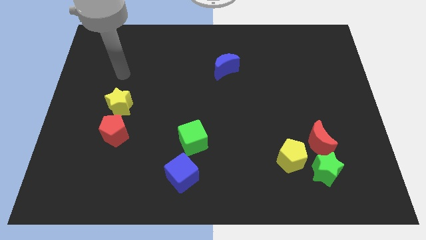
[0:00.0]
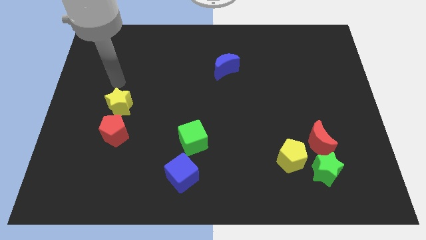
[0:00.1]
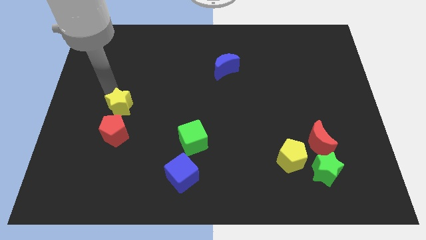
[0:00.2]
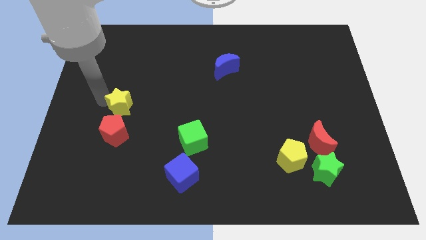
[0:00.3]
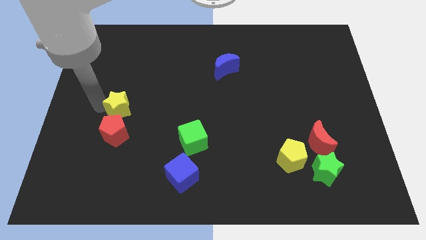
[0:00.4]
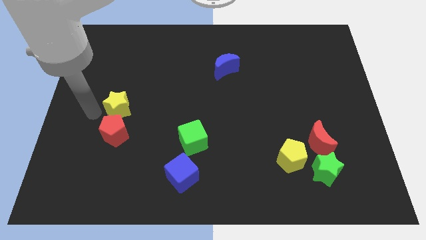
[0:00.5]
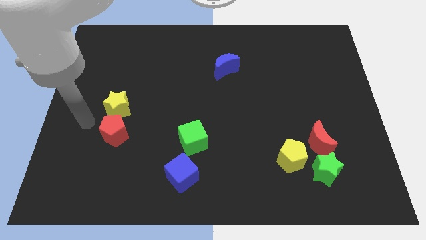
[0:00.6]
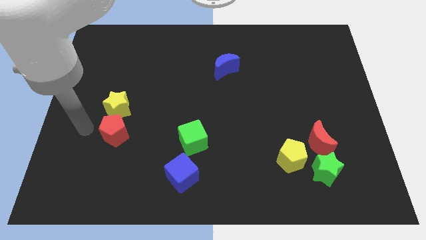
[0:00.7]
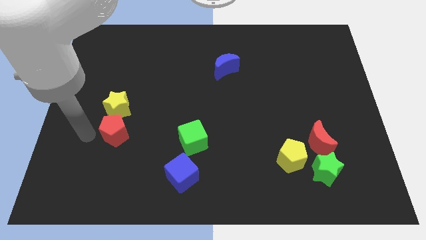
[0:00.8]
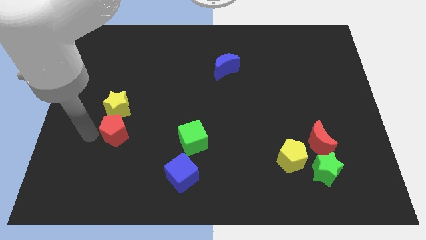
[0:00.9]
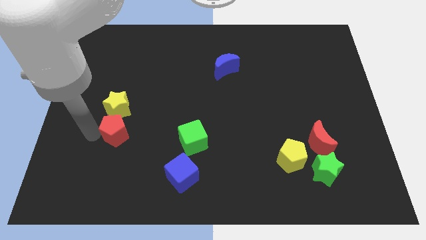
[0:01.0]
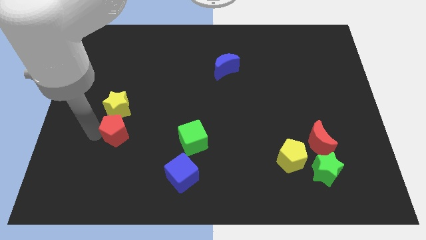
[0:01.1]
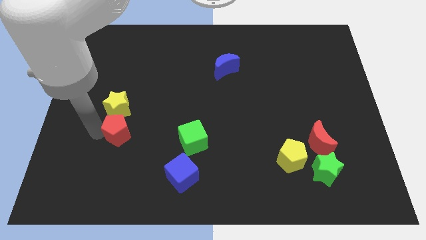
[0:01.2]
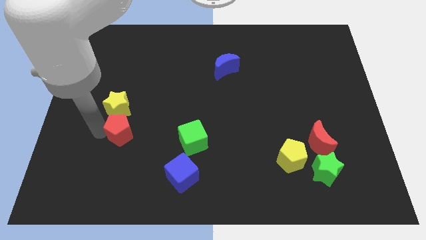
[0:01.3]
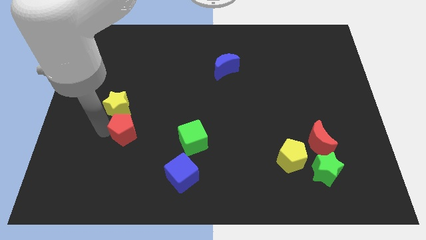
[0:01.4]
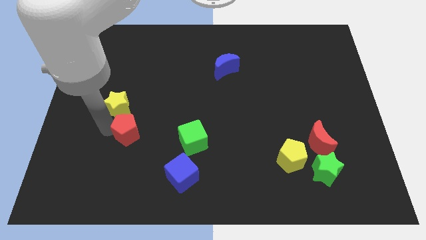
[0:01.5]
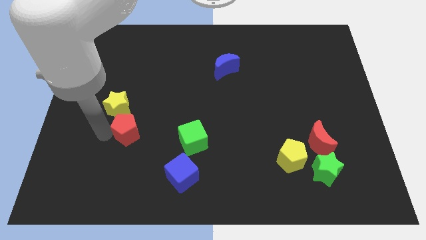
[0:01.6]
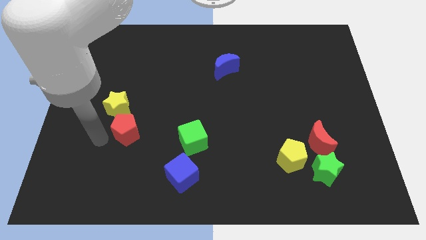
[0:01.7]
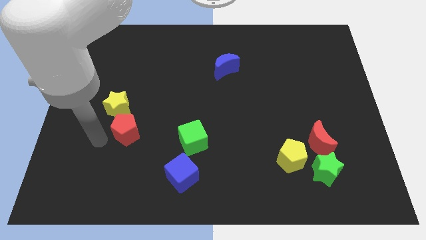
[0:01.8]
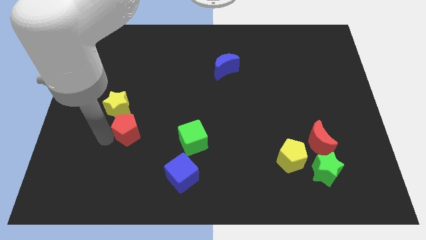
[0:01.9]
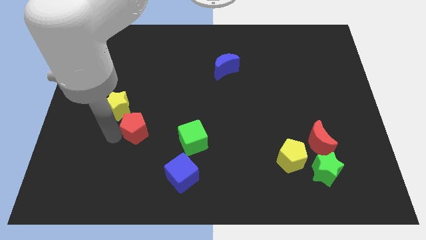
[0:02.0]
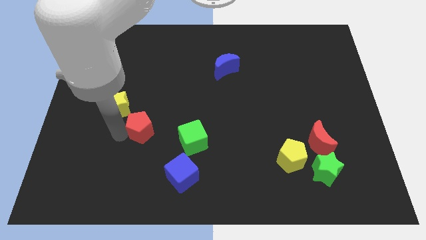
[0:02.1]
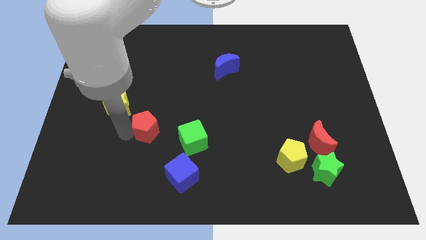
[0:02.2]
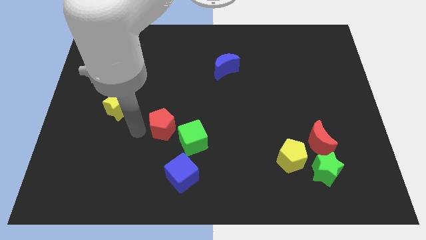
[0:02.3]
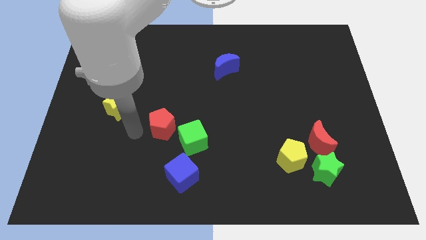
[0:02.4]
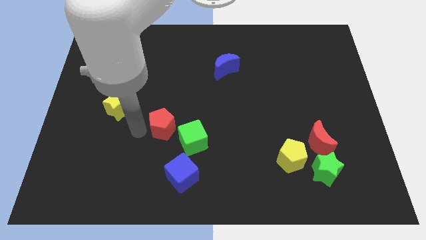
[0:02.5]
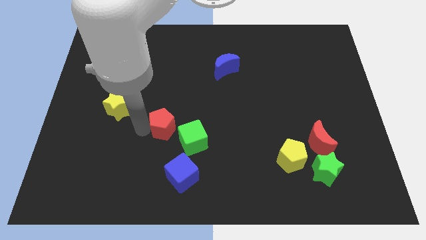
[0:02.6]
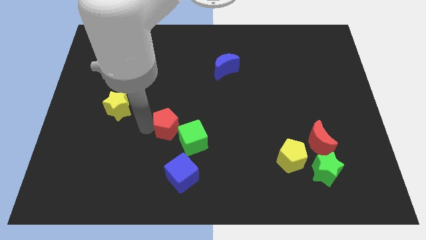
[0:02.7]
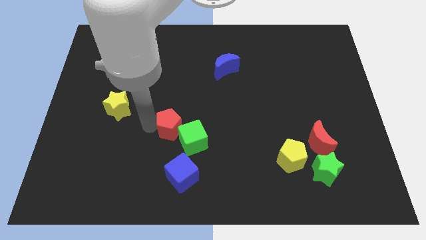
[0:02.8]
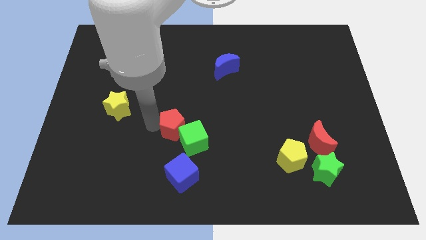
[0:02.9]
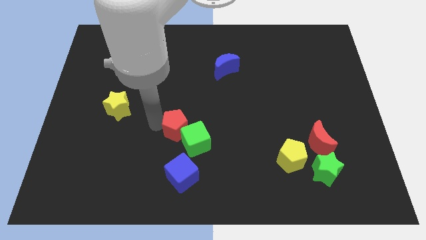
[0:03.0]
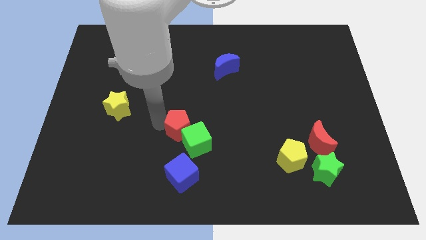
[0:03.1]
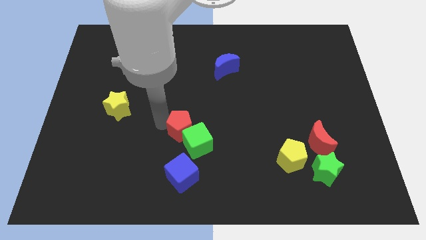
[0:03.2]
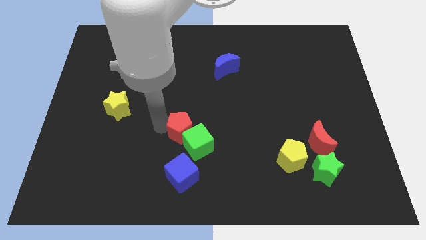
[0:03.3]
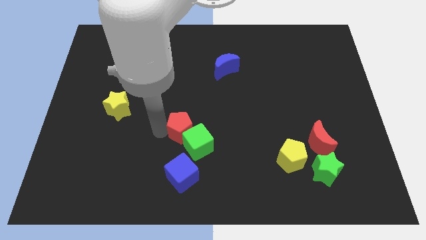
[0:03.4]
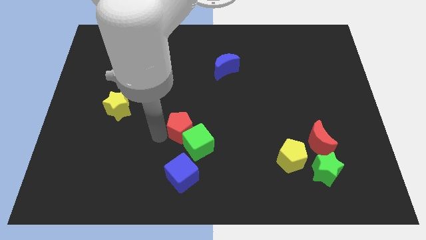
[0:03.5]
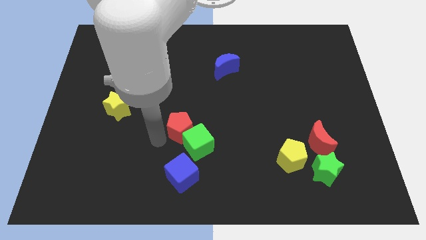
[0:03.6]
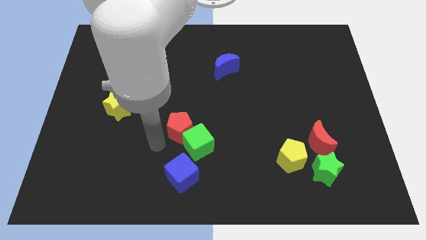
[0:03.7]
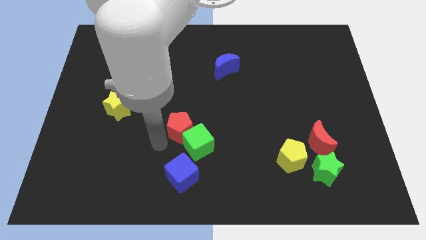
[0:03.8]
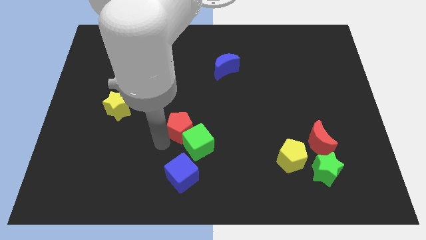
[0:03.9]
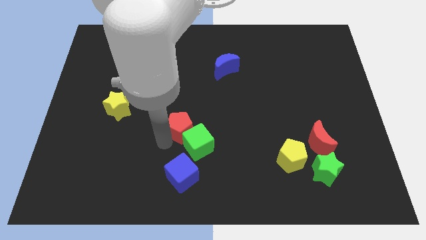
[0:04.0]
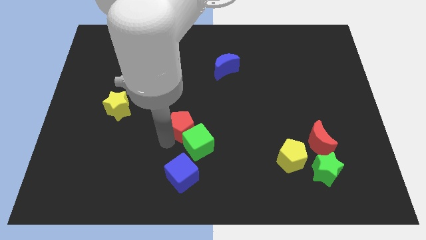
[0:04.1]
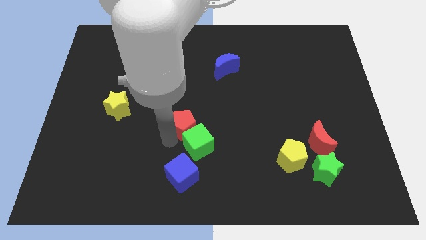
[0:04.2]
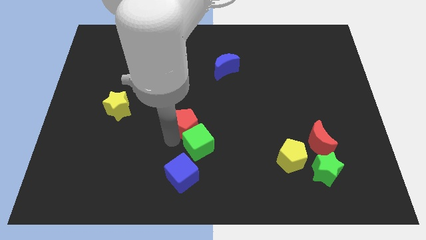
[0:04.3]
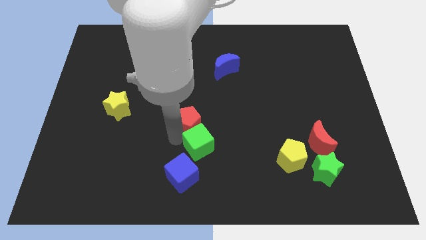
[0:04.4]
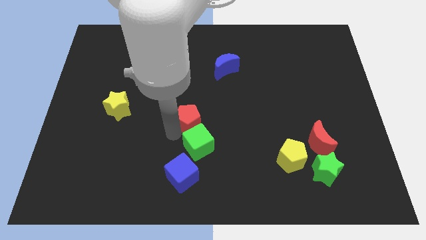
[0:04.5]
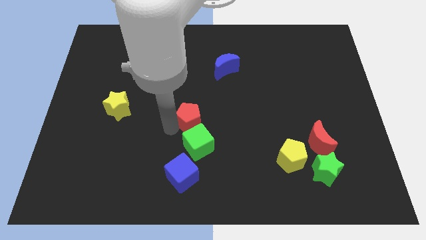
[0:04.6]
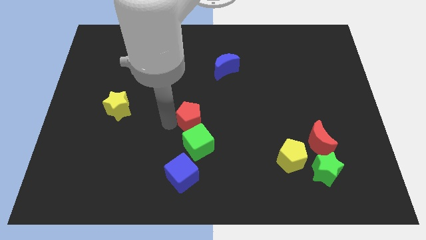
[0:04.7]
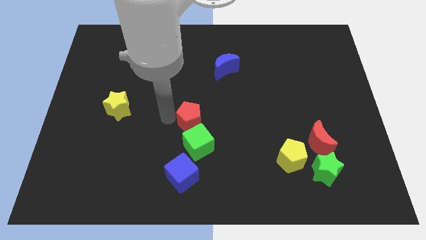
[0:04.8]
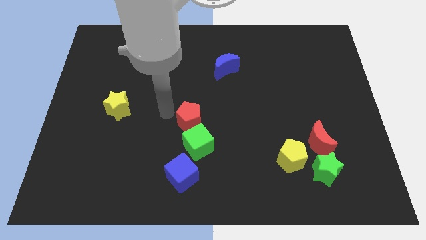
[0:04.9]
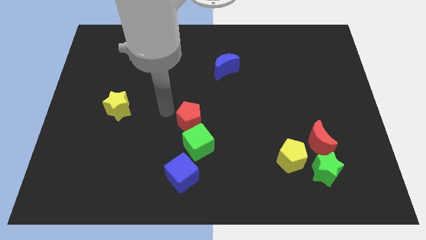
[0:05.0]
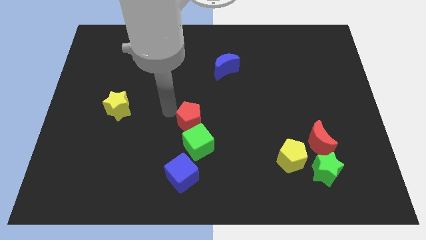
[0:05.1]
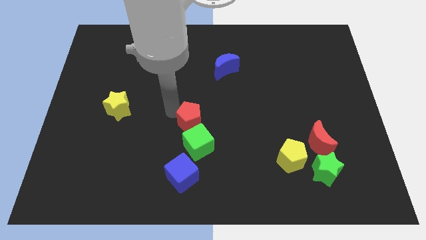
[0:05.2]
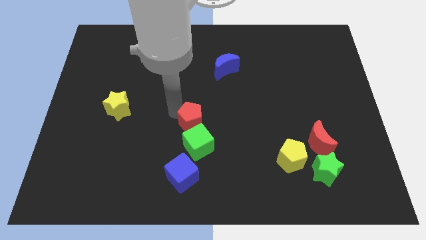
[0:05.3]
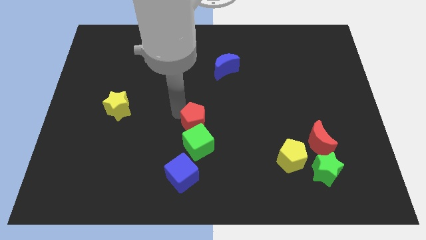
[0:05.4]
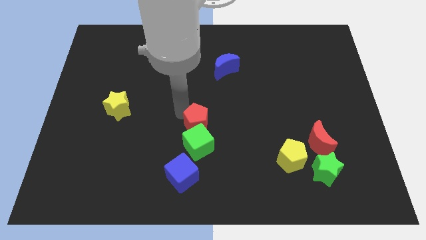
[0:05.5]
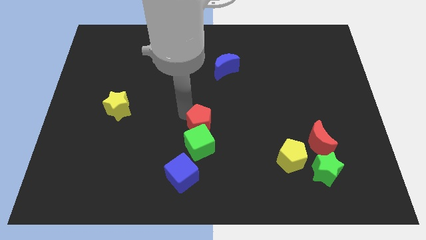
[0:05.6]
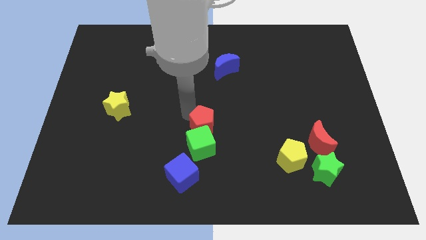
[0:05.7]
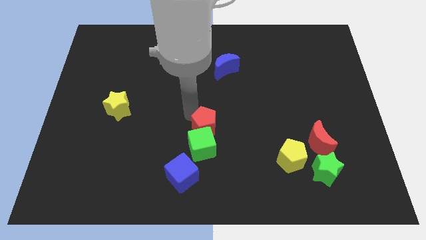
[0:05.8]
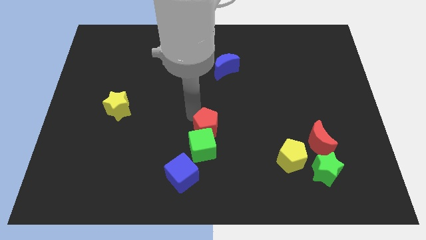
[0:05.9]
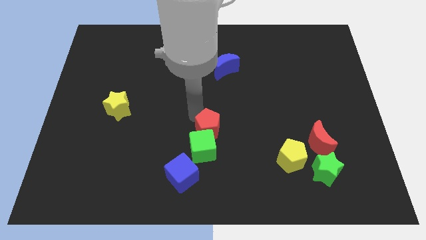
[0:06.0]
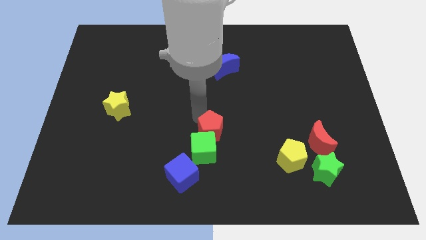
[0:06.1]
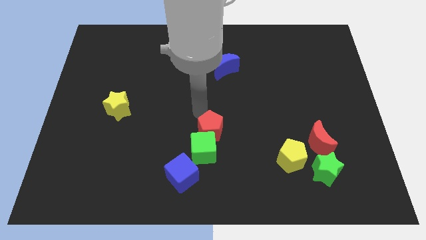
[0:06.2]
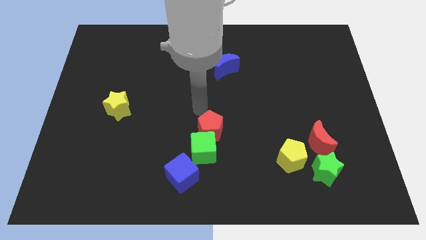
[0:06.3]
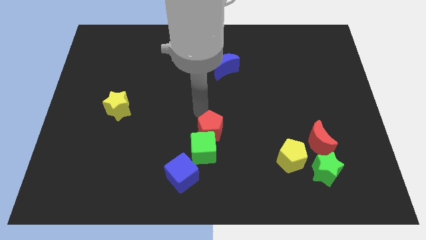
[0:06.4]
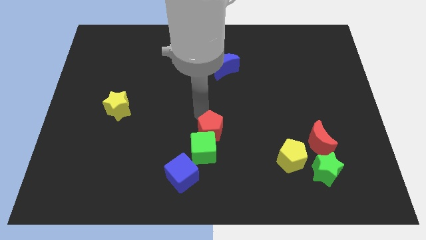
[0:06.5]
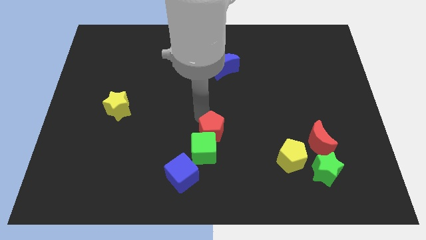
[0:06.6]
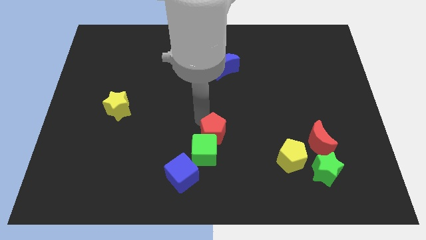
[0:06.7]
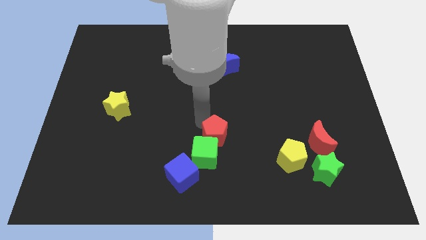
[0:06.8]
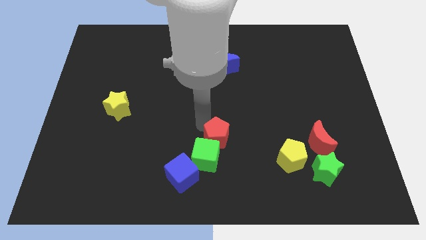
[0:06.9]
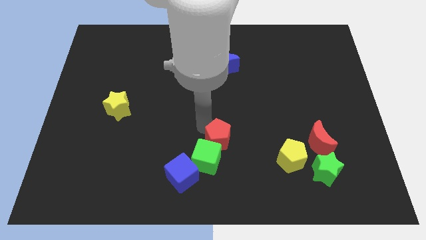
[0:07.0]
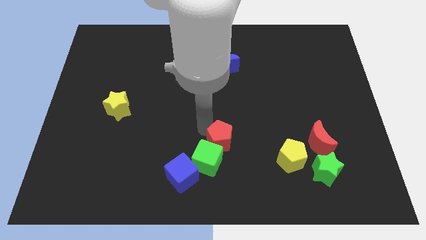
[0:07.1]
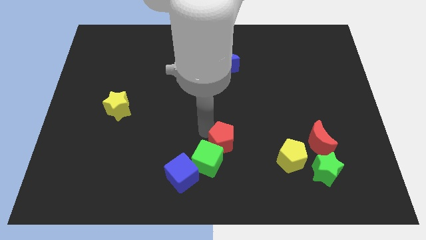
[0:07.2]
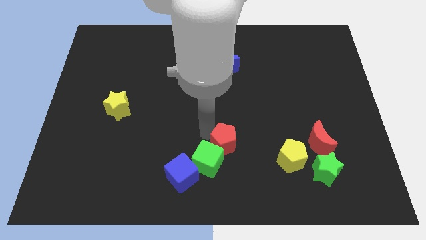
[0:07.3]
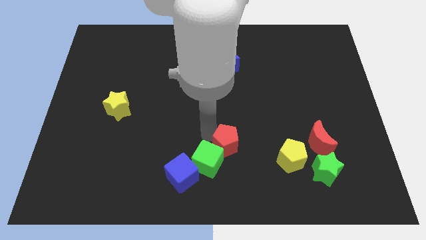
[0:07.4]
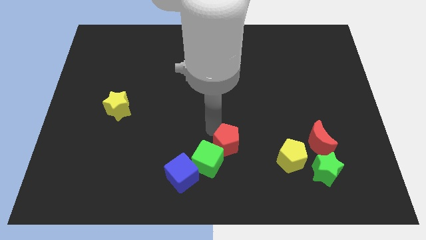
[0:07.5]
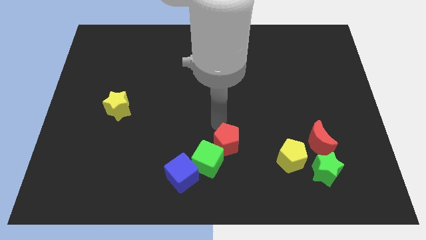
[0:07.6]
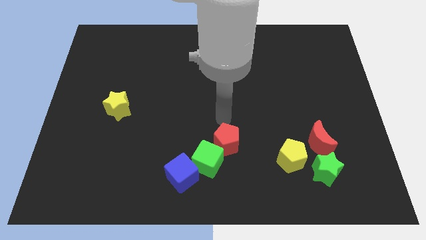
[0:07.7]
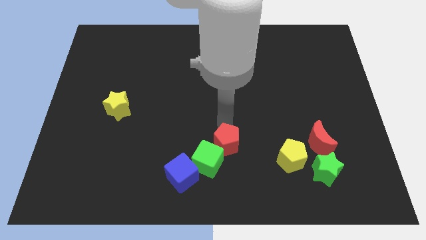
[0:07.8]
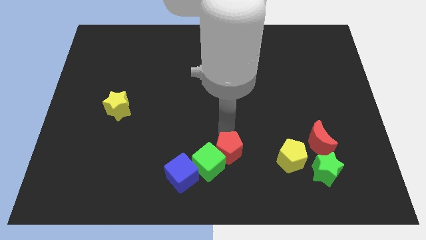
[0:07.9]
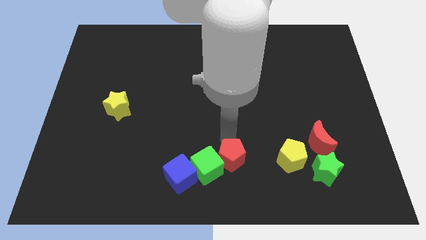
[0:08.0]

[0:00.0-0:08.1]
move the red pentagon to the right of the blue cube
